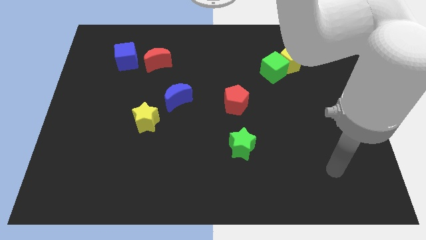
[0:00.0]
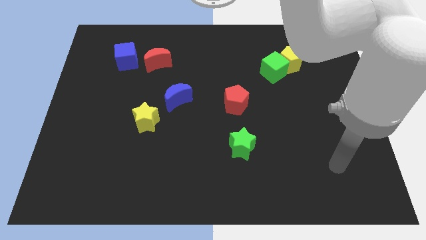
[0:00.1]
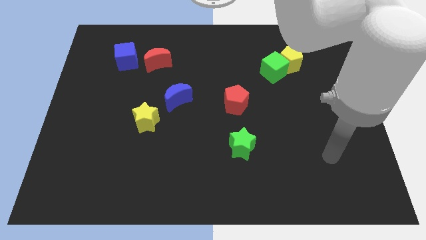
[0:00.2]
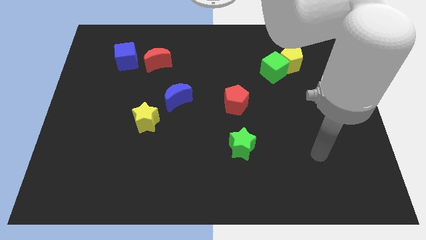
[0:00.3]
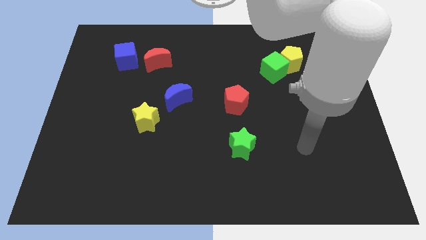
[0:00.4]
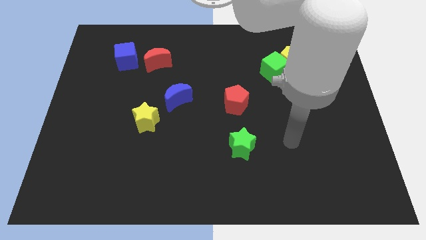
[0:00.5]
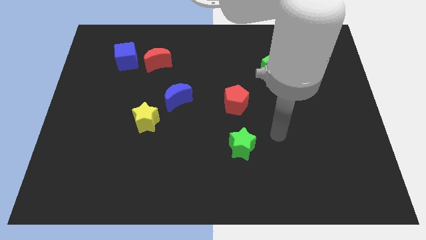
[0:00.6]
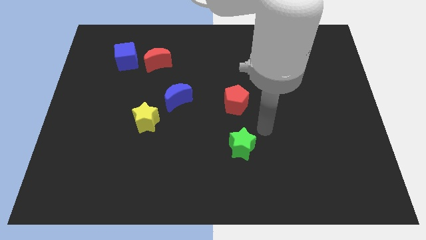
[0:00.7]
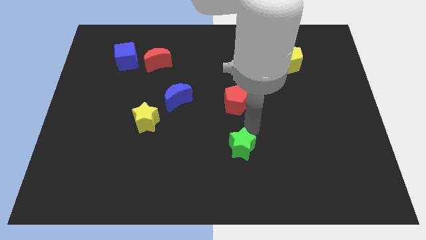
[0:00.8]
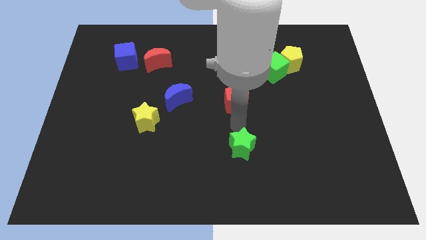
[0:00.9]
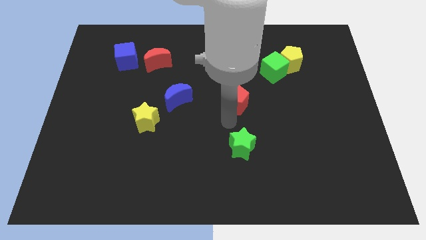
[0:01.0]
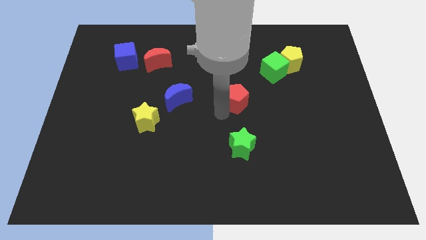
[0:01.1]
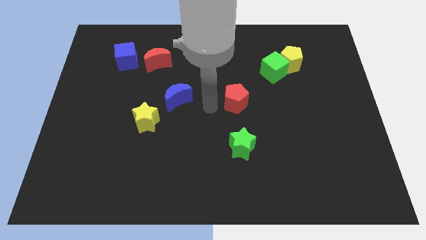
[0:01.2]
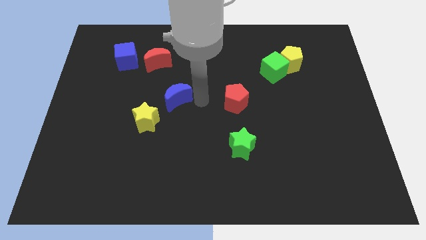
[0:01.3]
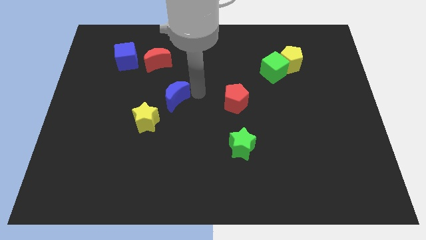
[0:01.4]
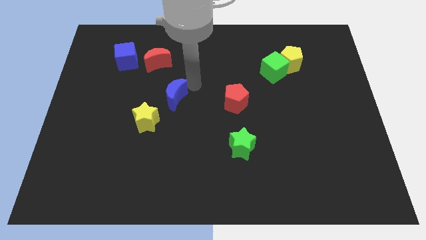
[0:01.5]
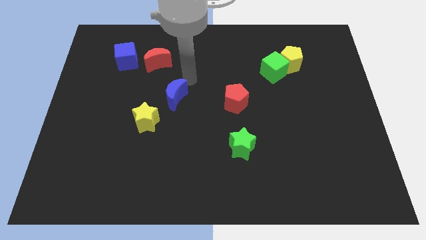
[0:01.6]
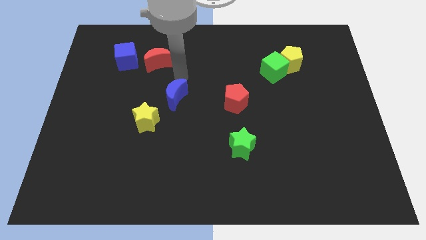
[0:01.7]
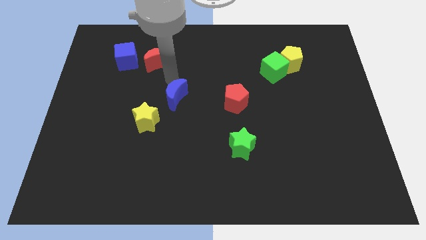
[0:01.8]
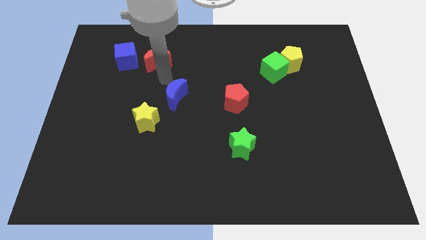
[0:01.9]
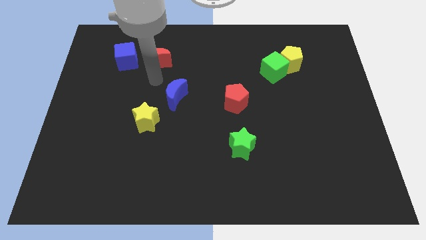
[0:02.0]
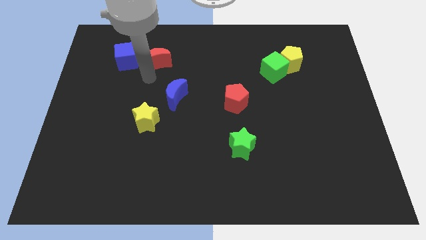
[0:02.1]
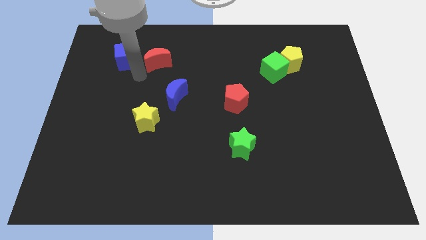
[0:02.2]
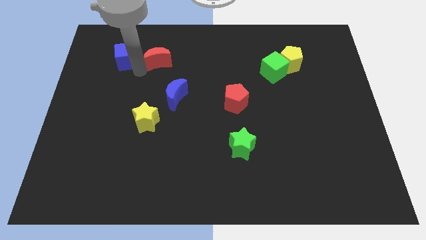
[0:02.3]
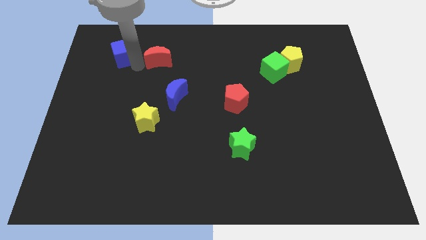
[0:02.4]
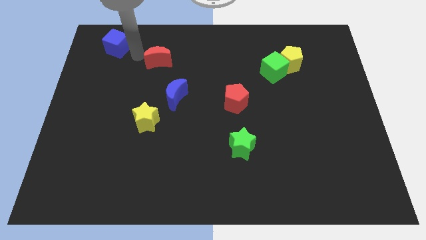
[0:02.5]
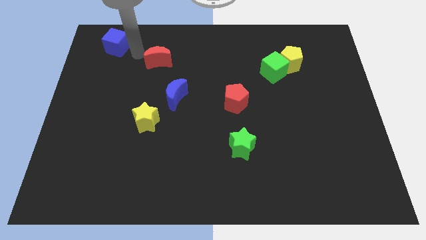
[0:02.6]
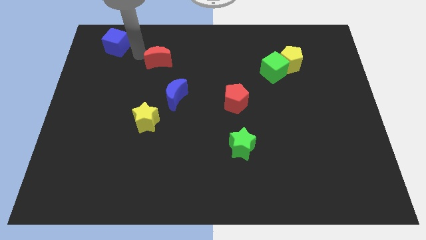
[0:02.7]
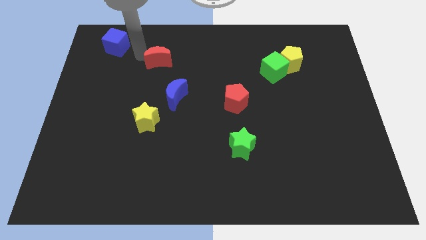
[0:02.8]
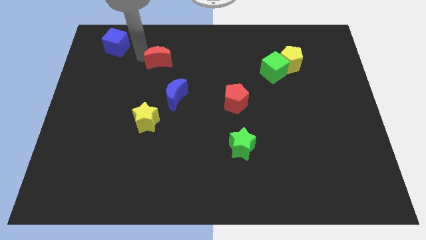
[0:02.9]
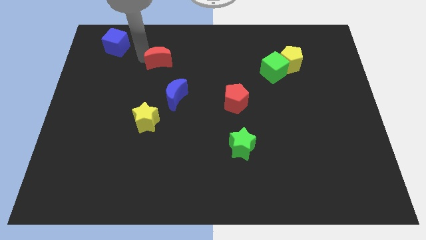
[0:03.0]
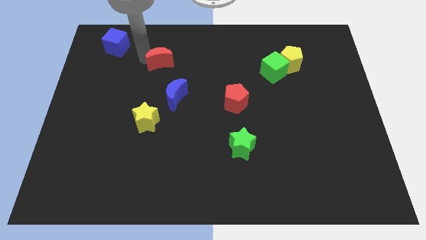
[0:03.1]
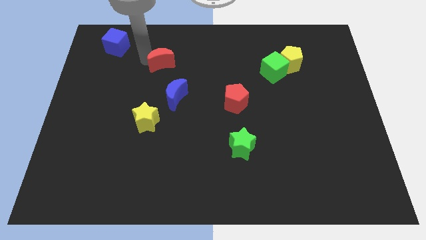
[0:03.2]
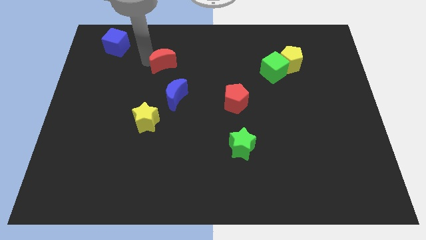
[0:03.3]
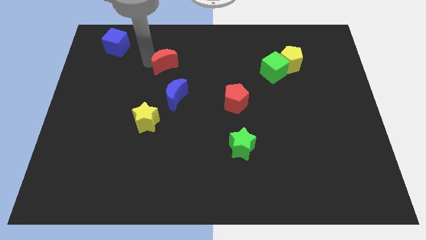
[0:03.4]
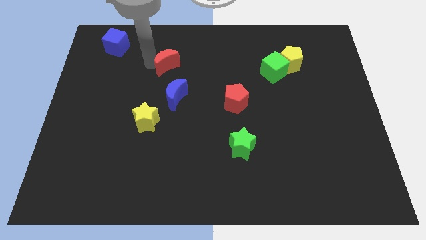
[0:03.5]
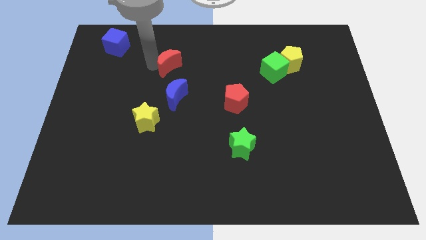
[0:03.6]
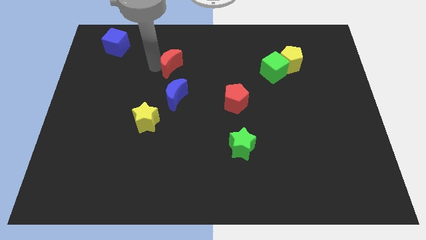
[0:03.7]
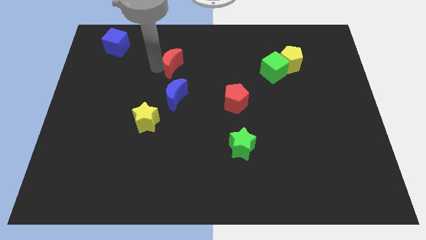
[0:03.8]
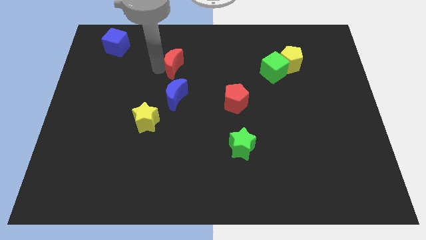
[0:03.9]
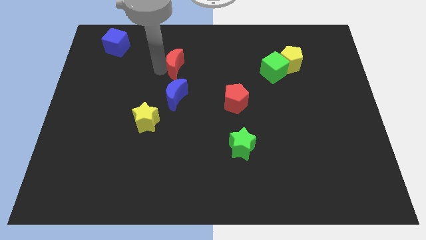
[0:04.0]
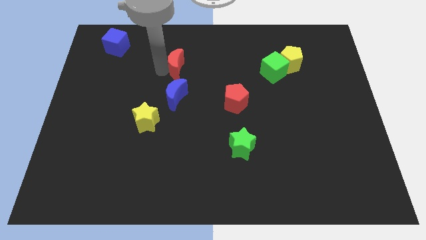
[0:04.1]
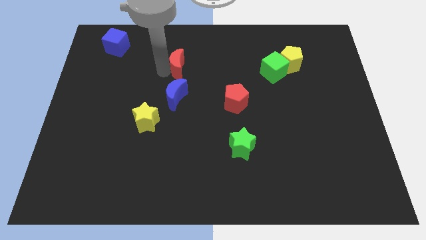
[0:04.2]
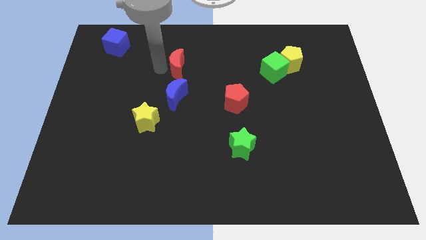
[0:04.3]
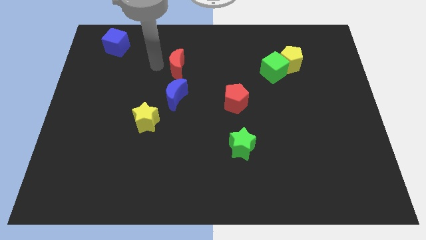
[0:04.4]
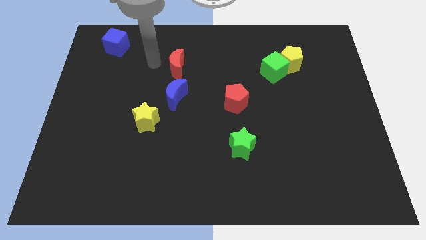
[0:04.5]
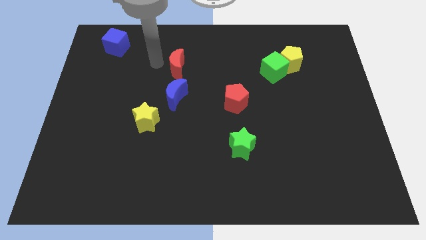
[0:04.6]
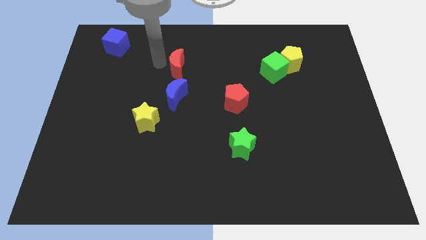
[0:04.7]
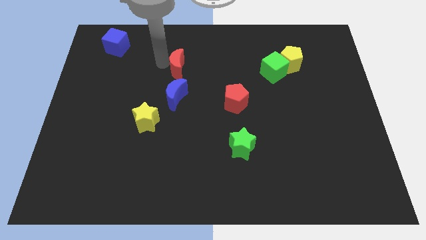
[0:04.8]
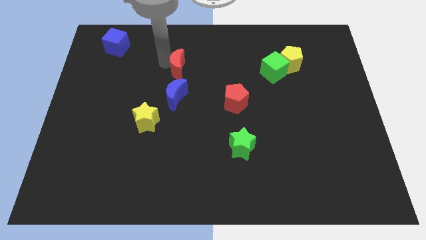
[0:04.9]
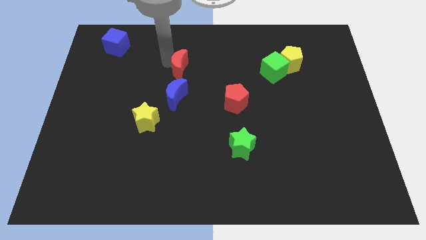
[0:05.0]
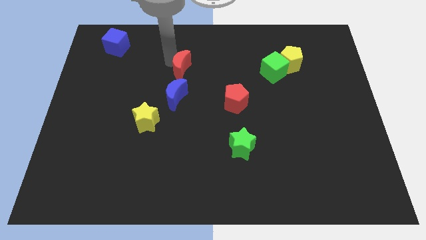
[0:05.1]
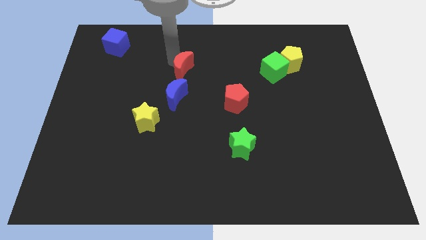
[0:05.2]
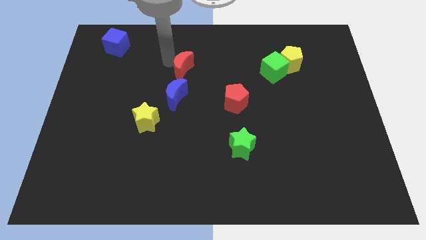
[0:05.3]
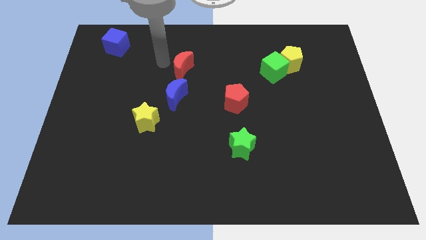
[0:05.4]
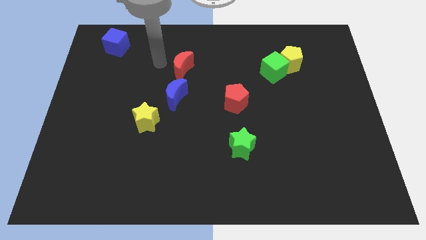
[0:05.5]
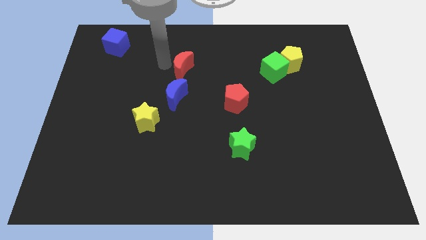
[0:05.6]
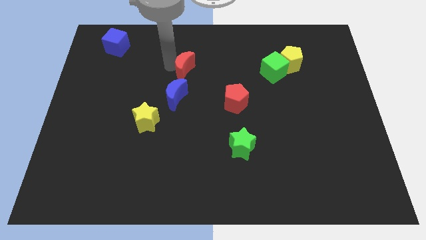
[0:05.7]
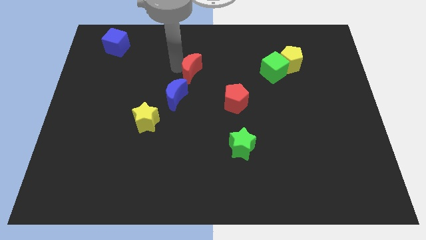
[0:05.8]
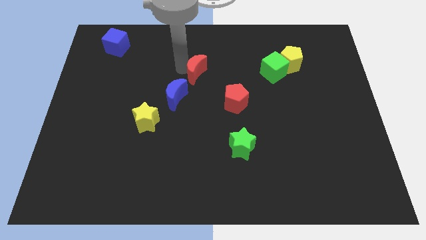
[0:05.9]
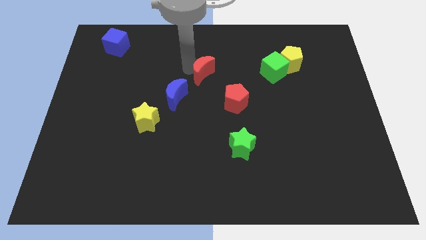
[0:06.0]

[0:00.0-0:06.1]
push the red moon diagonally up and to the left of the red pentagon

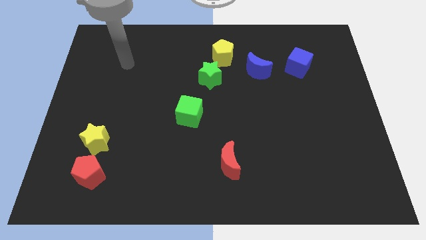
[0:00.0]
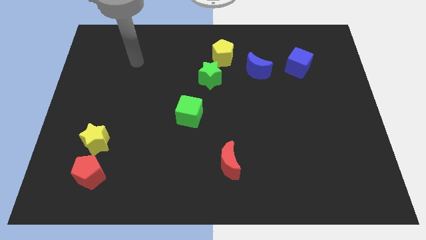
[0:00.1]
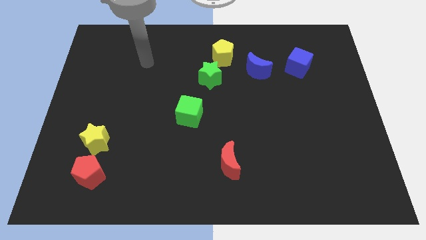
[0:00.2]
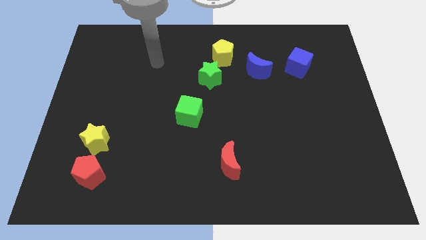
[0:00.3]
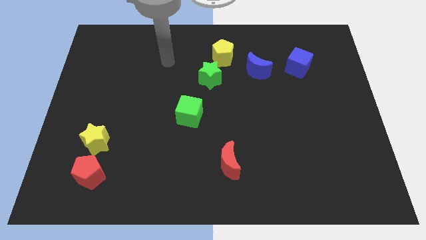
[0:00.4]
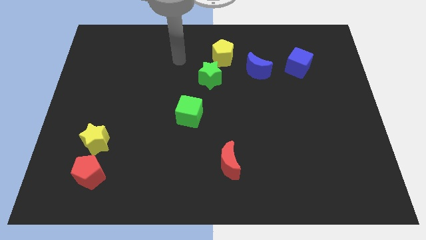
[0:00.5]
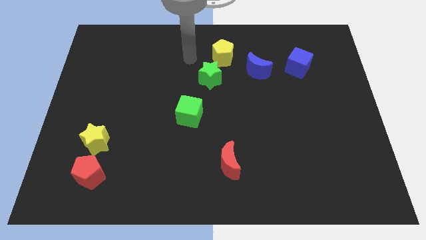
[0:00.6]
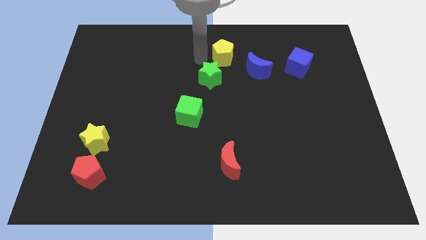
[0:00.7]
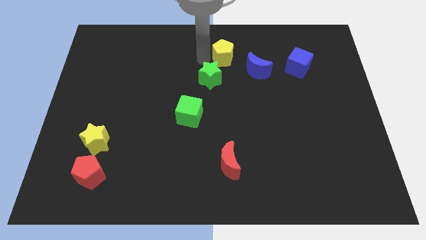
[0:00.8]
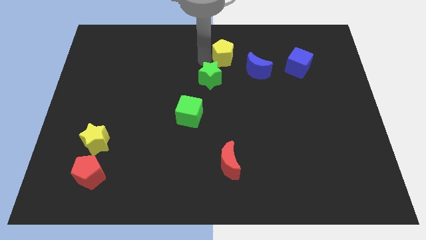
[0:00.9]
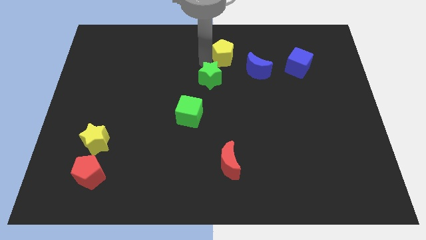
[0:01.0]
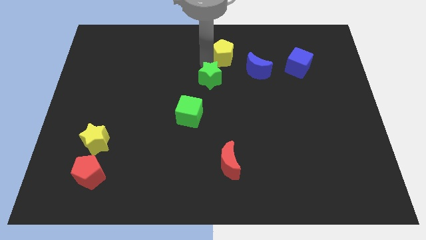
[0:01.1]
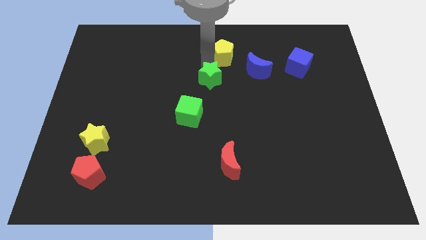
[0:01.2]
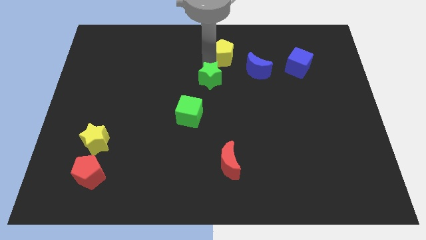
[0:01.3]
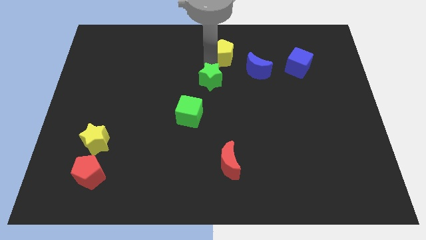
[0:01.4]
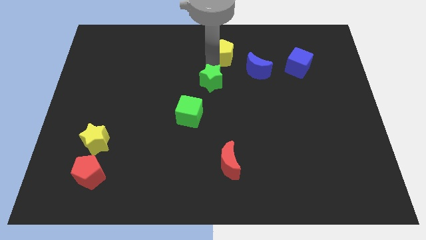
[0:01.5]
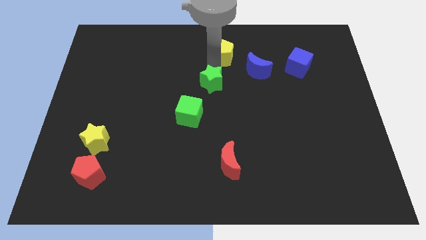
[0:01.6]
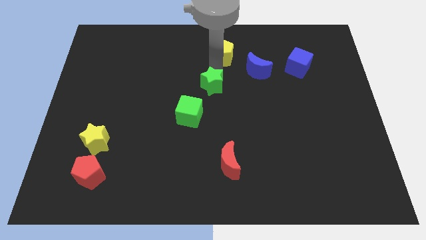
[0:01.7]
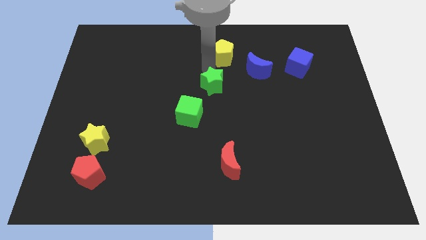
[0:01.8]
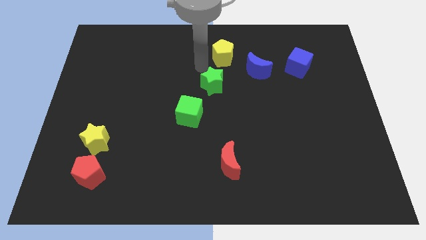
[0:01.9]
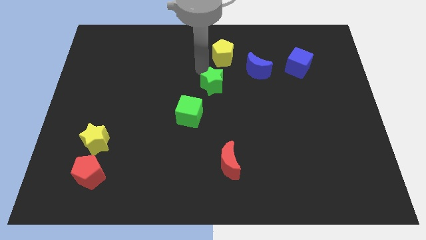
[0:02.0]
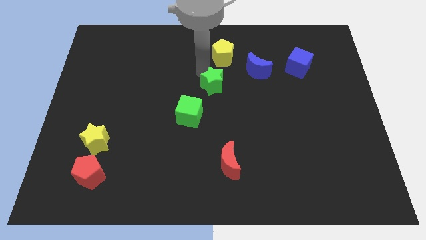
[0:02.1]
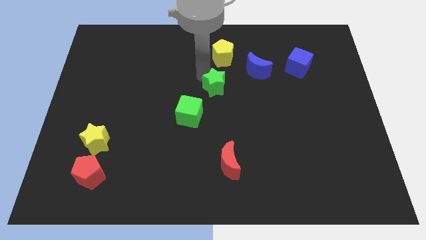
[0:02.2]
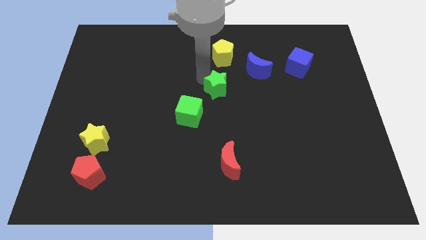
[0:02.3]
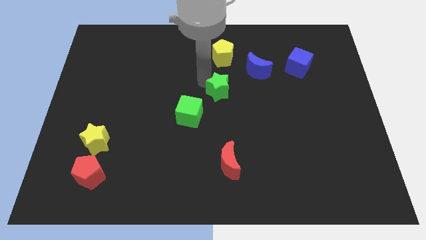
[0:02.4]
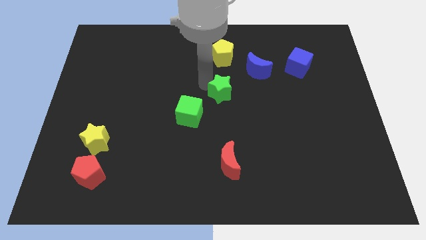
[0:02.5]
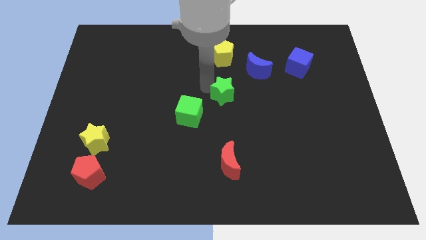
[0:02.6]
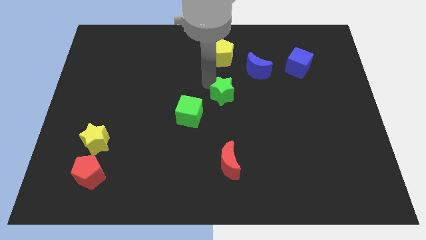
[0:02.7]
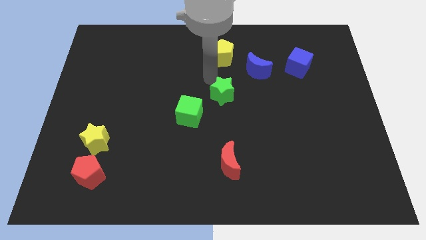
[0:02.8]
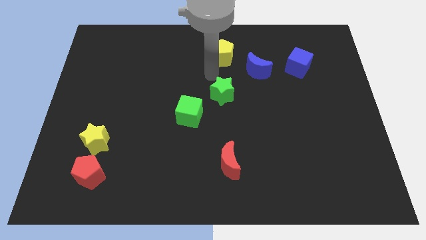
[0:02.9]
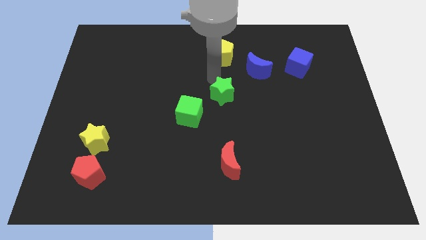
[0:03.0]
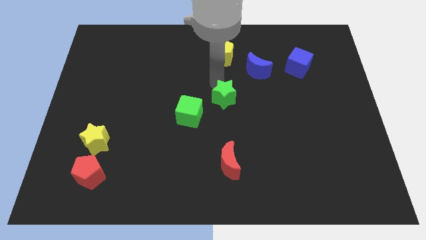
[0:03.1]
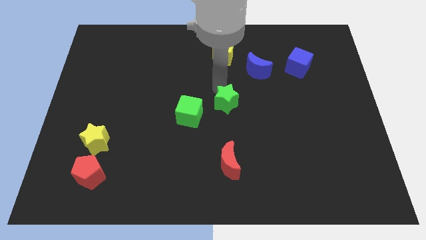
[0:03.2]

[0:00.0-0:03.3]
move the green star right of the green cube
